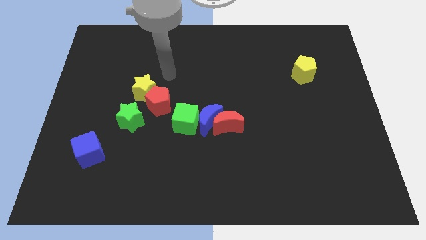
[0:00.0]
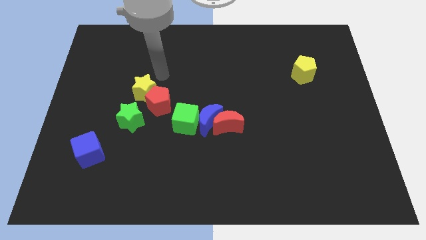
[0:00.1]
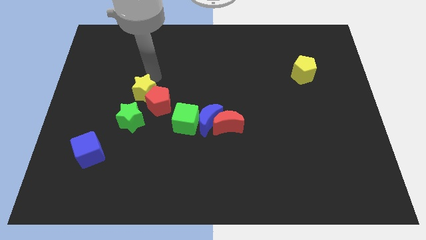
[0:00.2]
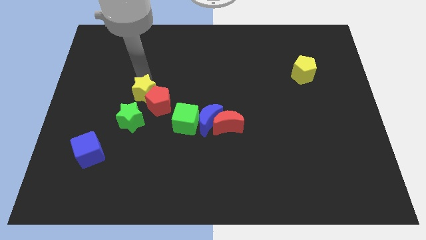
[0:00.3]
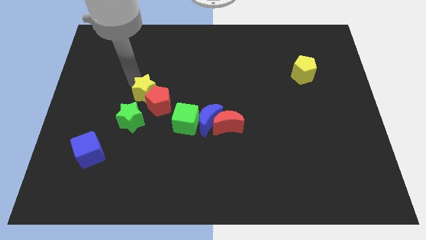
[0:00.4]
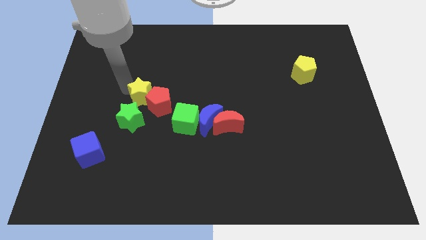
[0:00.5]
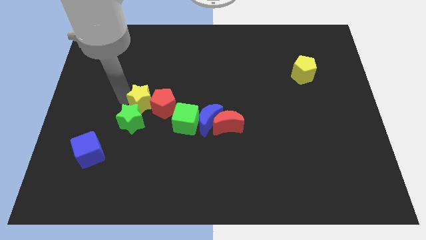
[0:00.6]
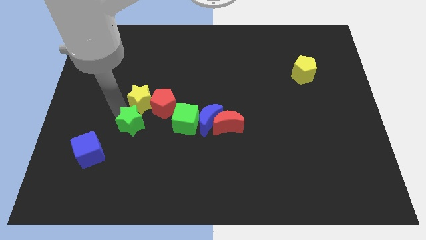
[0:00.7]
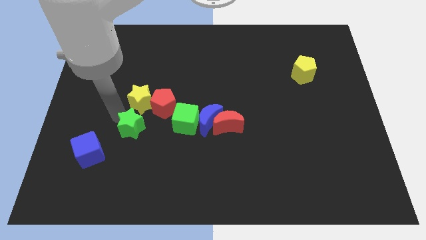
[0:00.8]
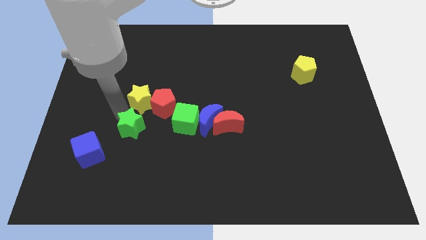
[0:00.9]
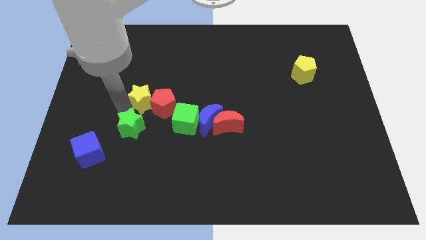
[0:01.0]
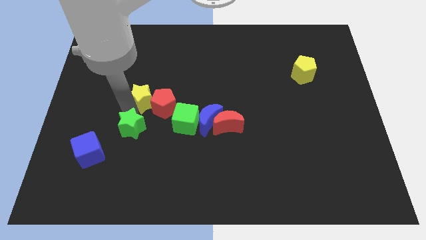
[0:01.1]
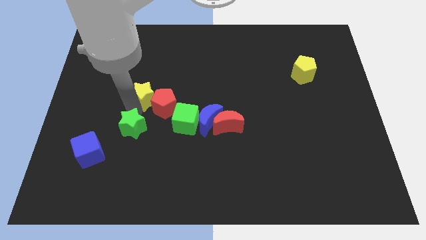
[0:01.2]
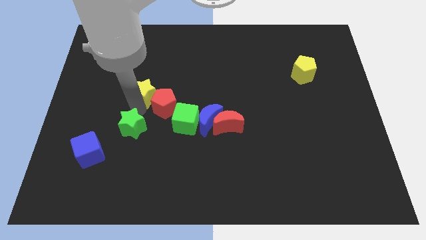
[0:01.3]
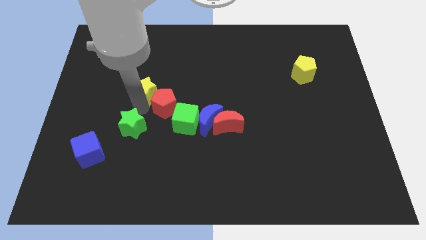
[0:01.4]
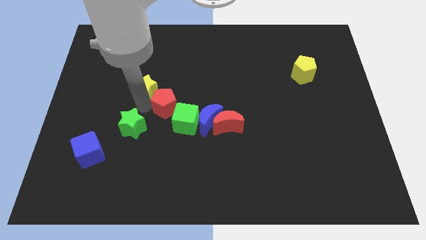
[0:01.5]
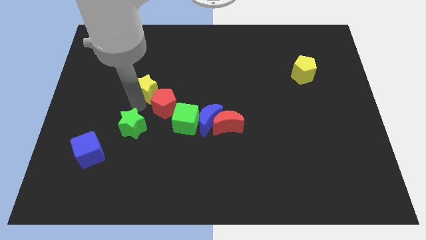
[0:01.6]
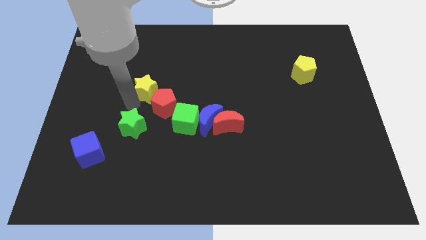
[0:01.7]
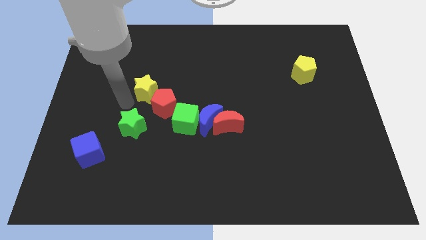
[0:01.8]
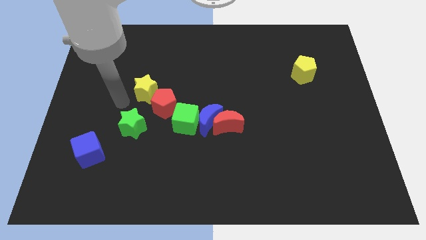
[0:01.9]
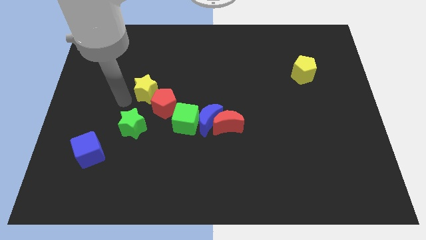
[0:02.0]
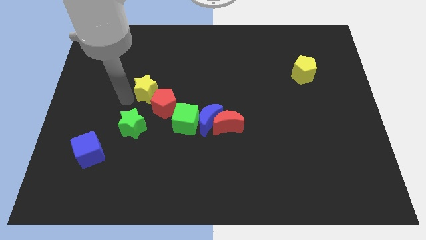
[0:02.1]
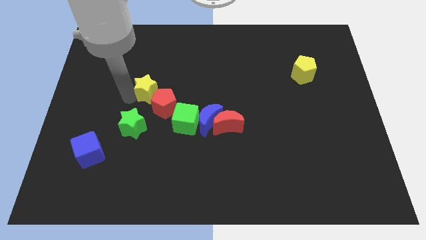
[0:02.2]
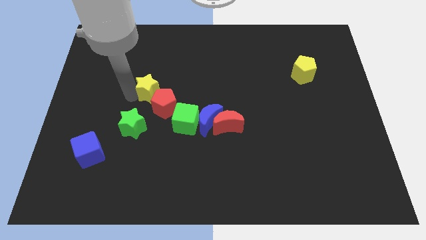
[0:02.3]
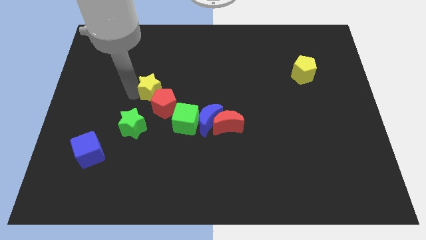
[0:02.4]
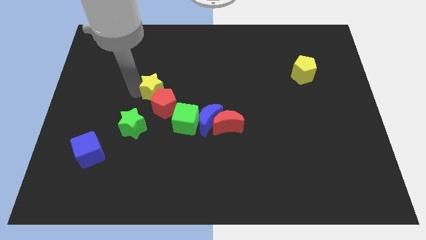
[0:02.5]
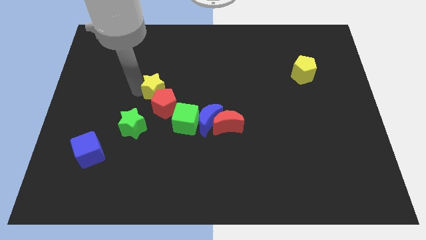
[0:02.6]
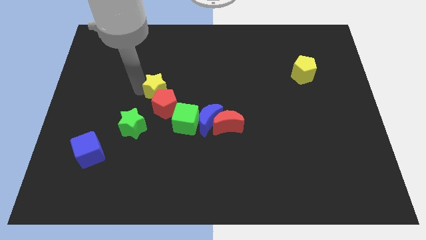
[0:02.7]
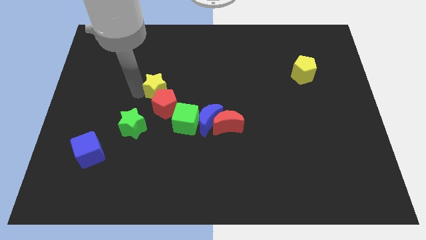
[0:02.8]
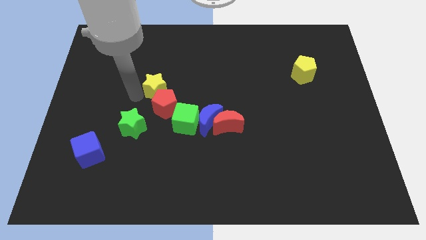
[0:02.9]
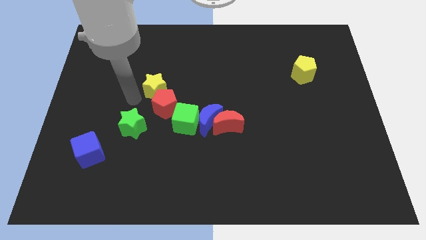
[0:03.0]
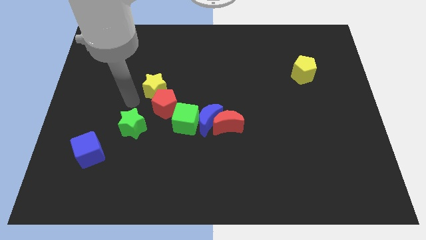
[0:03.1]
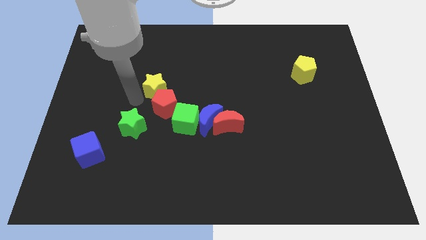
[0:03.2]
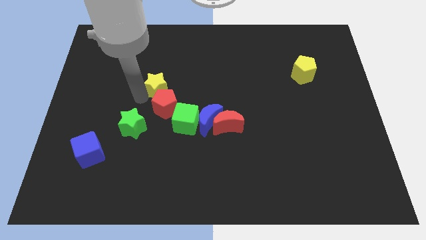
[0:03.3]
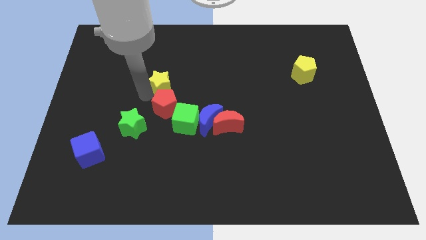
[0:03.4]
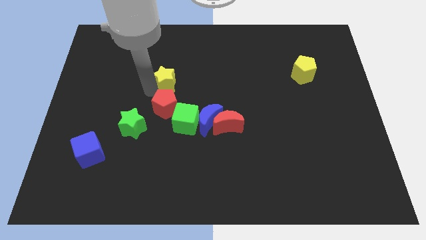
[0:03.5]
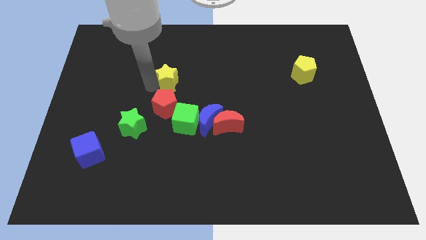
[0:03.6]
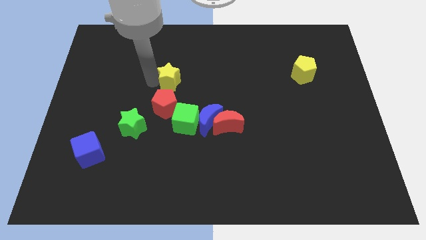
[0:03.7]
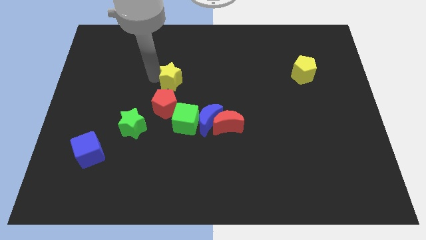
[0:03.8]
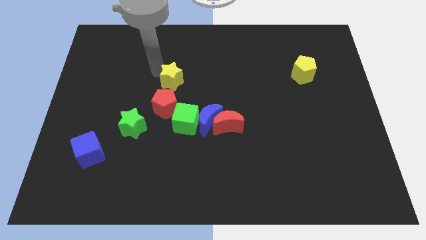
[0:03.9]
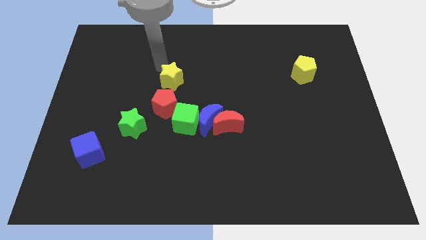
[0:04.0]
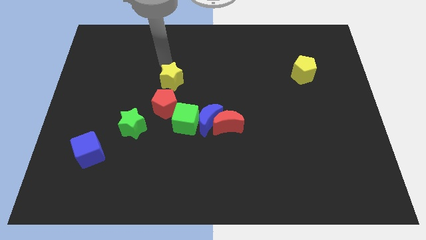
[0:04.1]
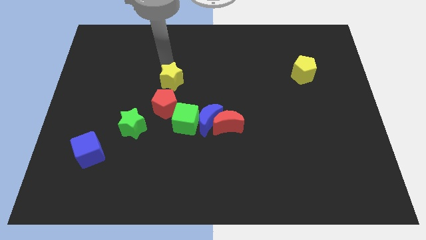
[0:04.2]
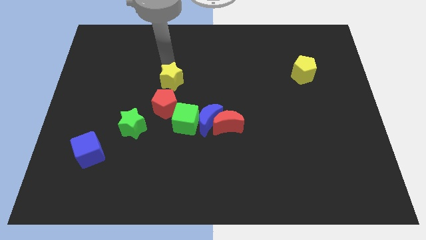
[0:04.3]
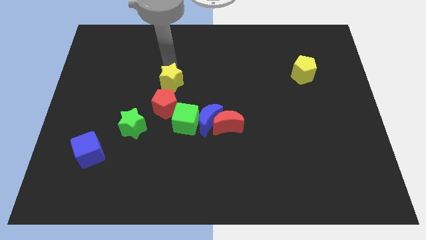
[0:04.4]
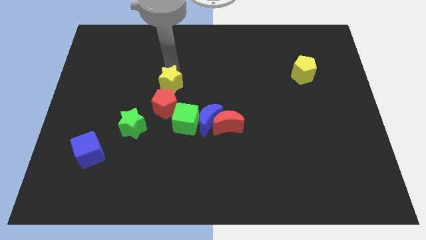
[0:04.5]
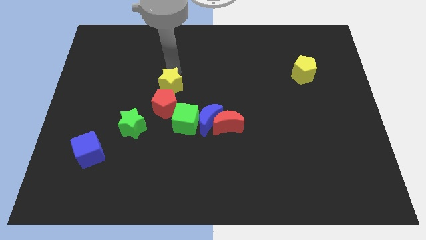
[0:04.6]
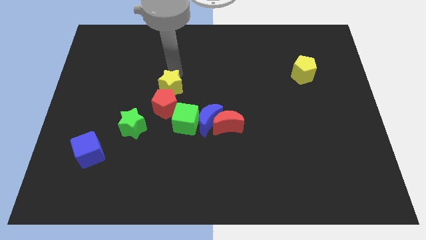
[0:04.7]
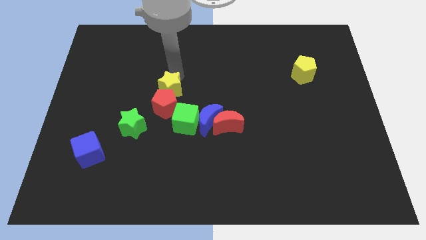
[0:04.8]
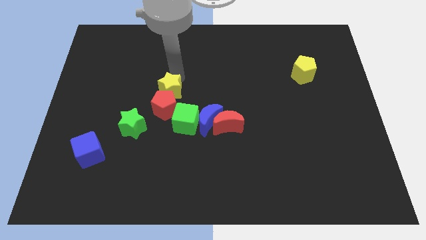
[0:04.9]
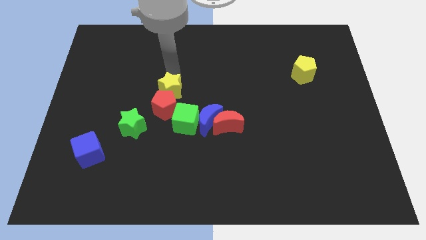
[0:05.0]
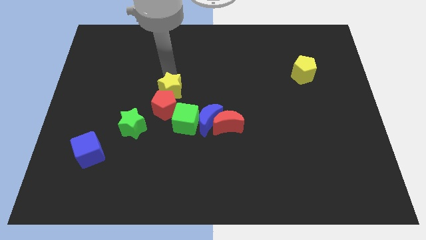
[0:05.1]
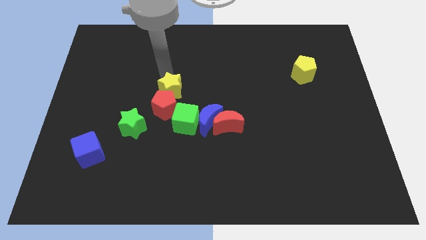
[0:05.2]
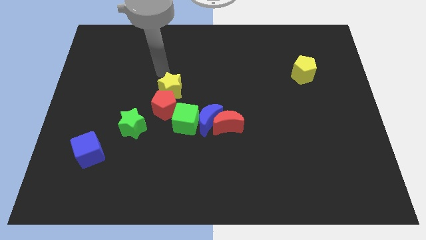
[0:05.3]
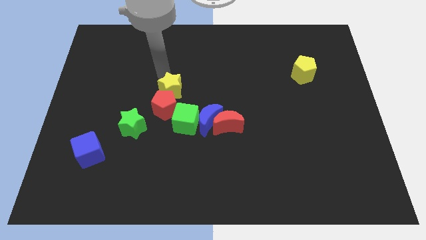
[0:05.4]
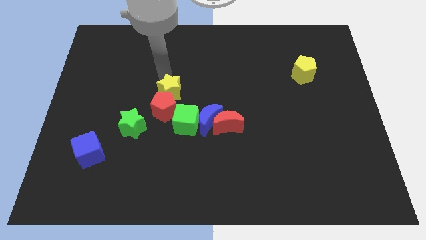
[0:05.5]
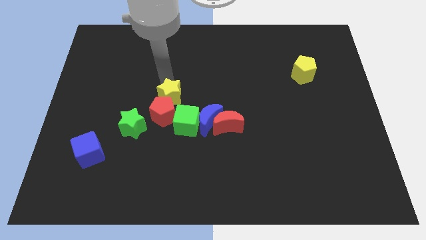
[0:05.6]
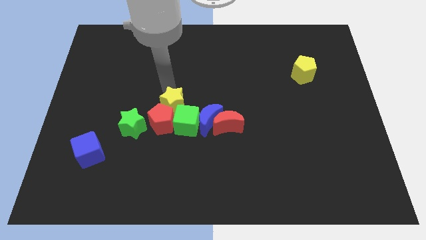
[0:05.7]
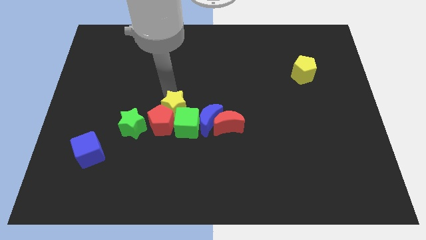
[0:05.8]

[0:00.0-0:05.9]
put the yellow star close to the green cube
